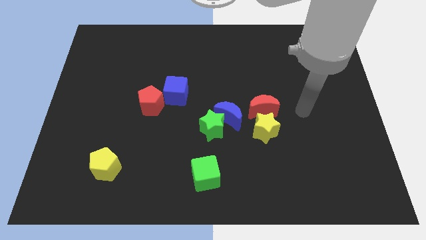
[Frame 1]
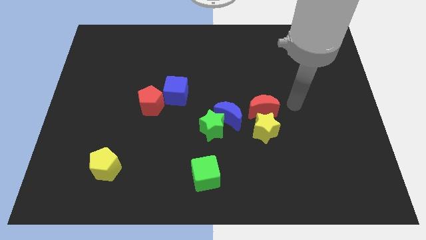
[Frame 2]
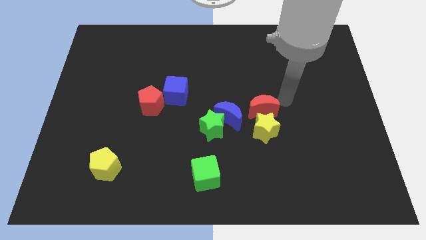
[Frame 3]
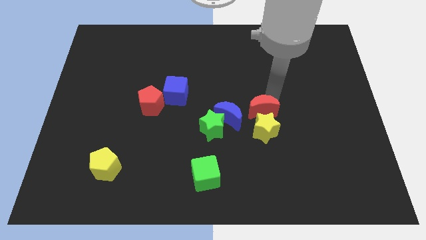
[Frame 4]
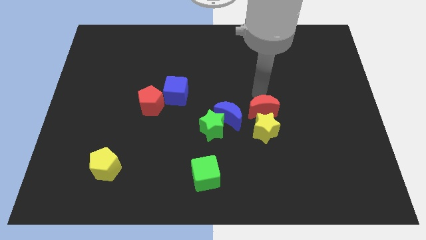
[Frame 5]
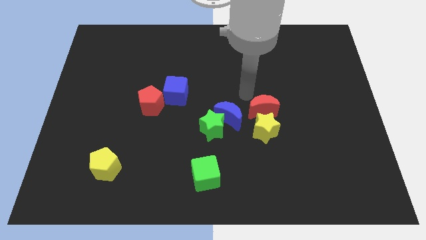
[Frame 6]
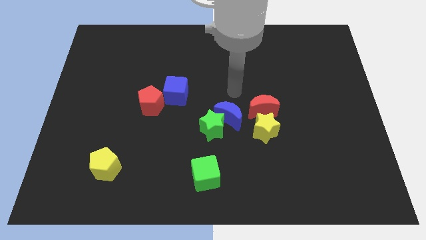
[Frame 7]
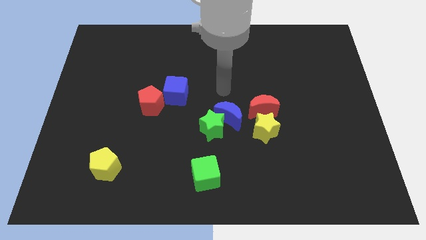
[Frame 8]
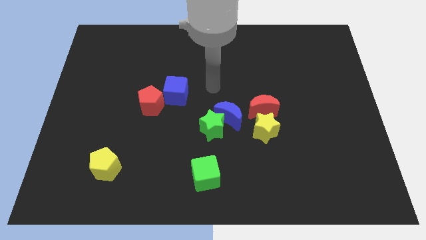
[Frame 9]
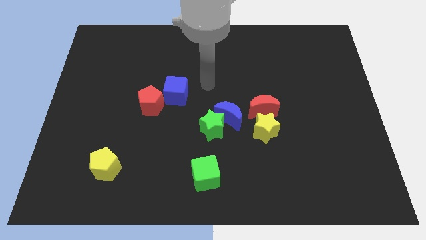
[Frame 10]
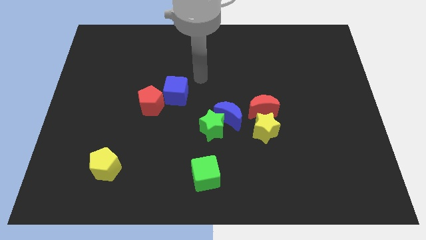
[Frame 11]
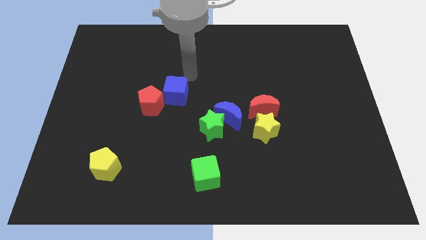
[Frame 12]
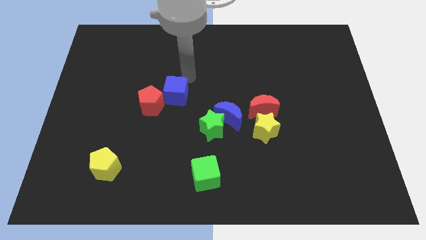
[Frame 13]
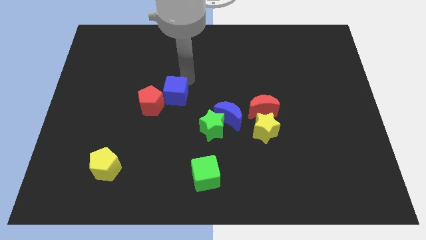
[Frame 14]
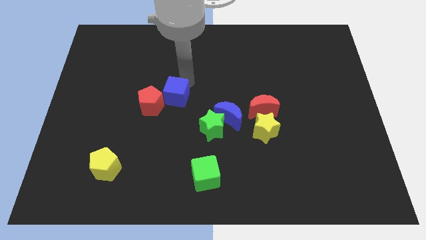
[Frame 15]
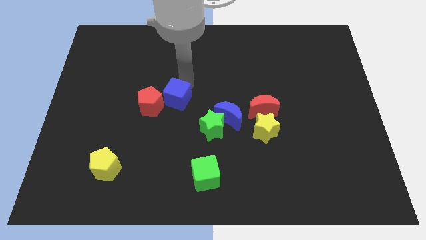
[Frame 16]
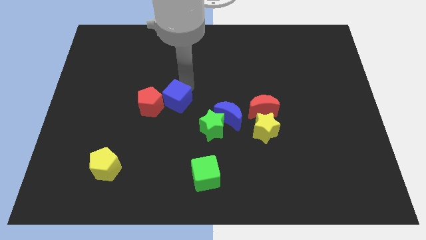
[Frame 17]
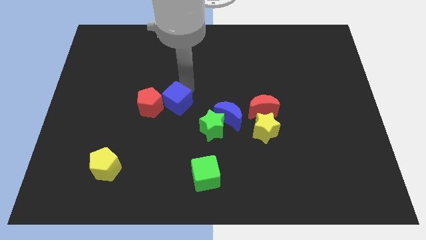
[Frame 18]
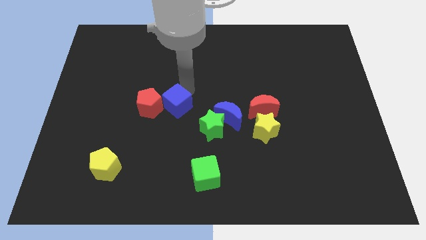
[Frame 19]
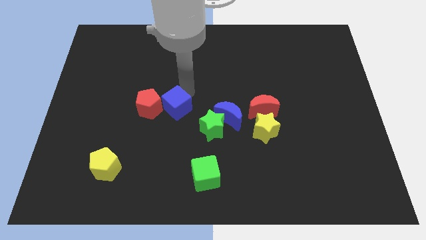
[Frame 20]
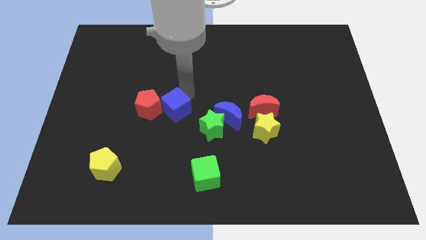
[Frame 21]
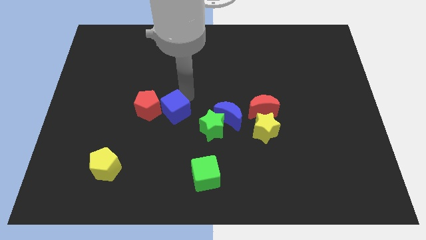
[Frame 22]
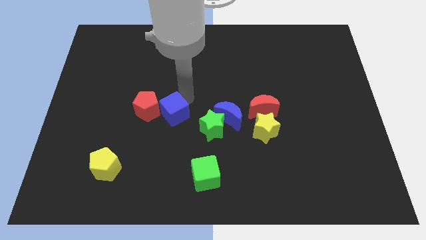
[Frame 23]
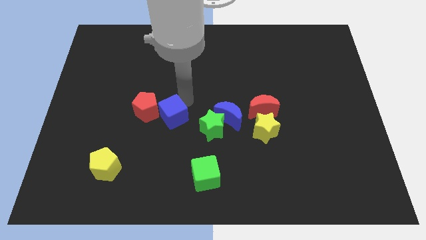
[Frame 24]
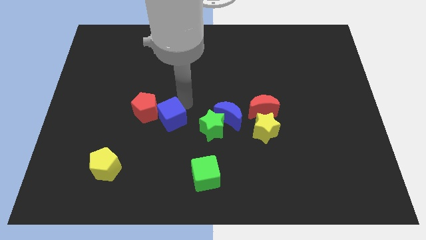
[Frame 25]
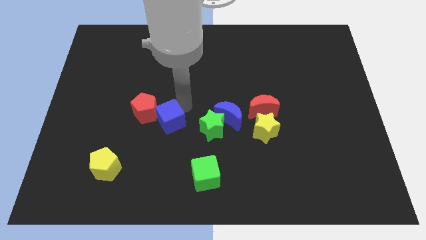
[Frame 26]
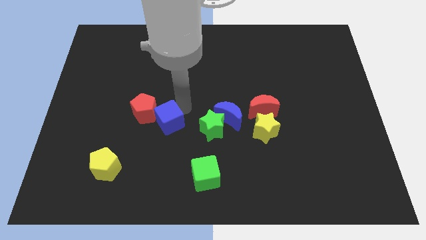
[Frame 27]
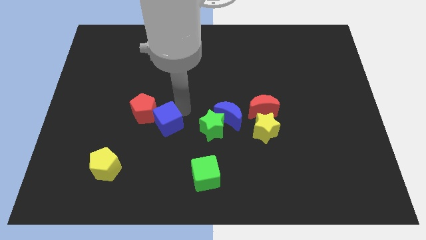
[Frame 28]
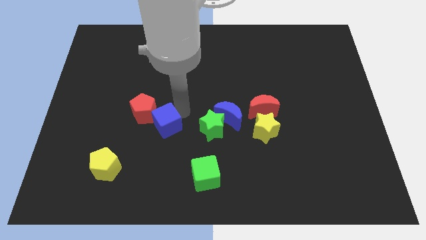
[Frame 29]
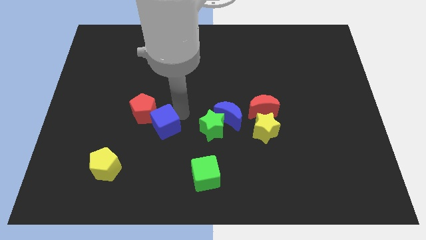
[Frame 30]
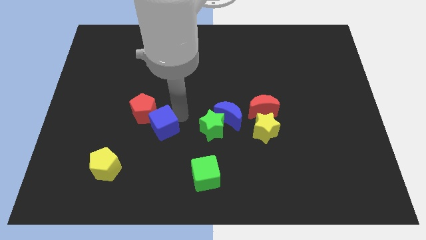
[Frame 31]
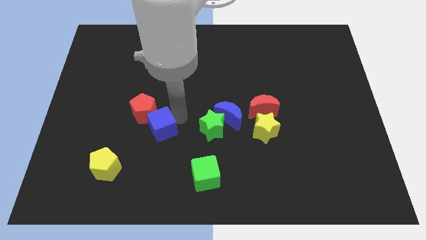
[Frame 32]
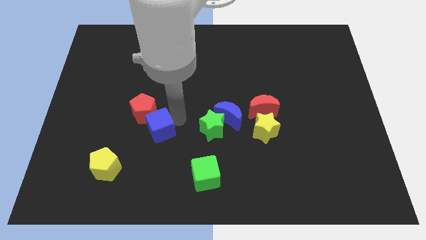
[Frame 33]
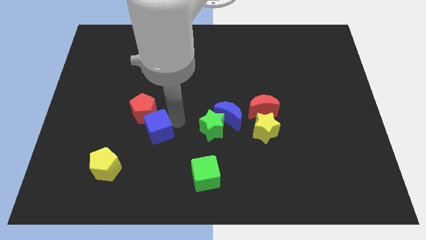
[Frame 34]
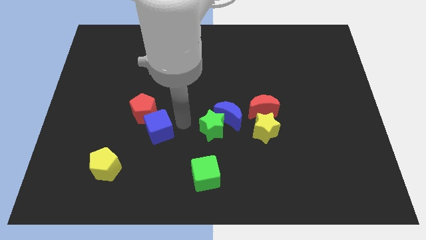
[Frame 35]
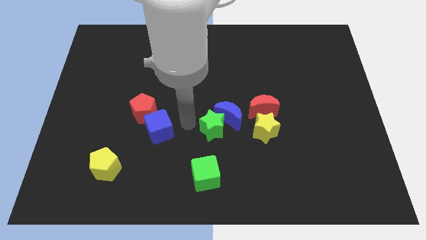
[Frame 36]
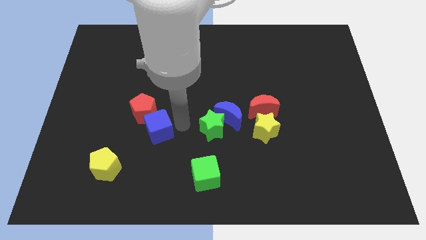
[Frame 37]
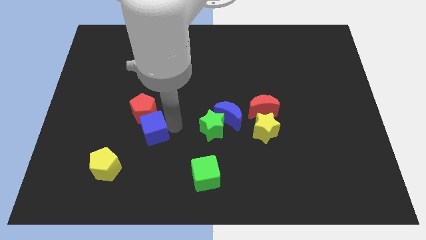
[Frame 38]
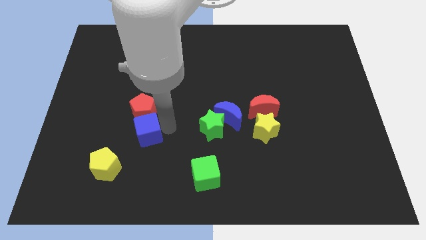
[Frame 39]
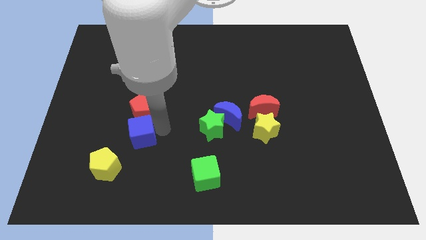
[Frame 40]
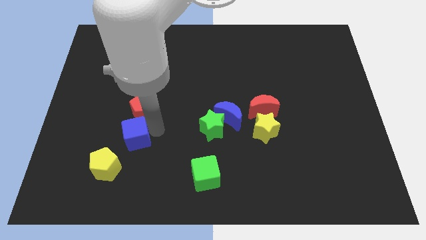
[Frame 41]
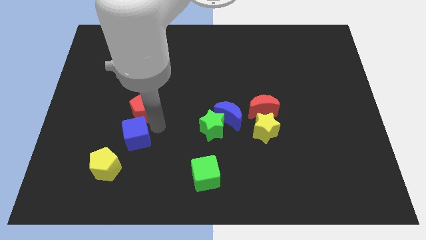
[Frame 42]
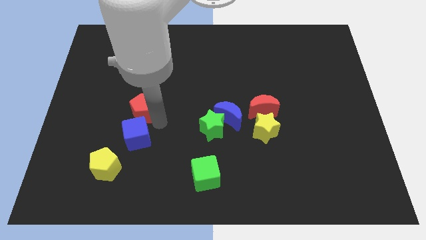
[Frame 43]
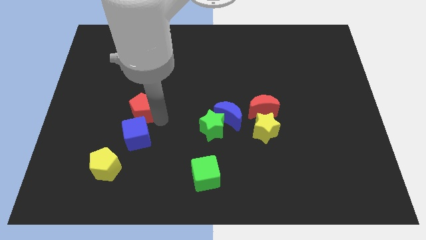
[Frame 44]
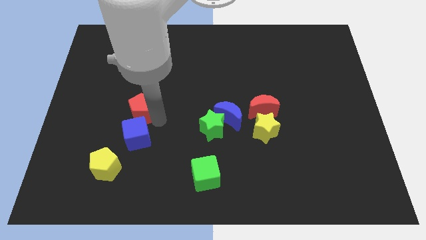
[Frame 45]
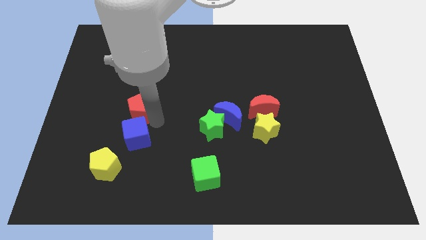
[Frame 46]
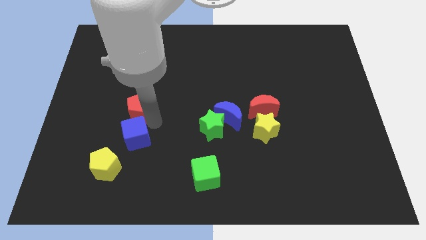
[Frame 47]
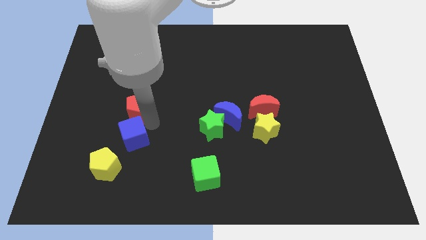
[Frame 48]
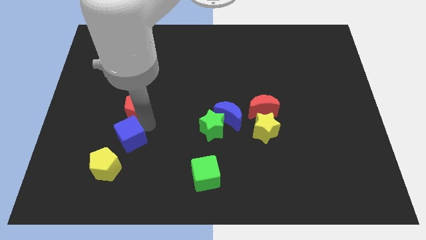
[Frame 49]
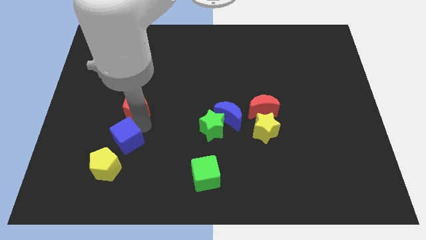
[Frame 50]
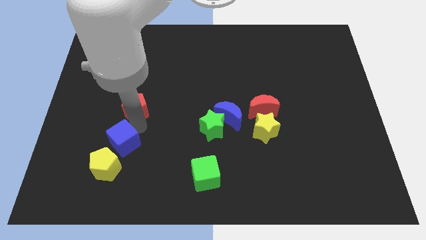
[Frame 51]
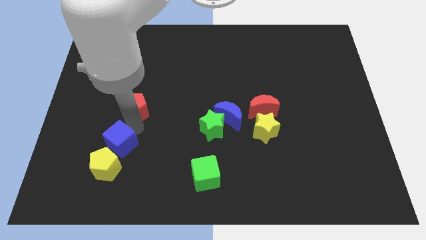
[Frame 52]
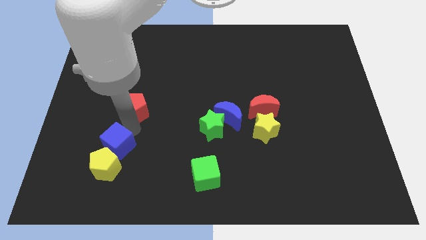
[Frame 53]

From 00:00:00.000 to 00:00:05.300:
put the blue cube to the yellow pentagon
